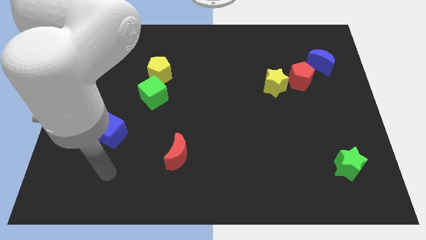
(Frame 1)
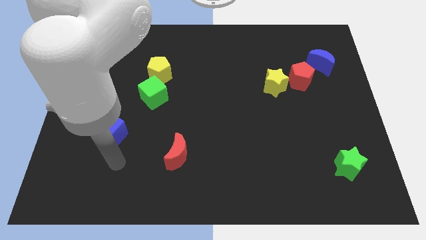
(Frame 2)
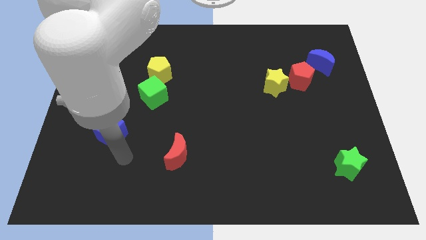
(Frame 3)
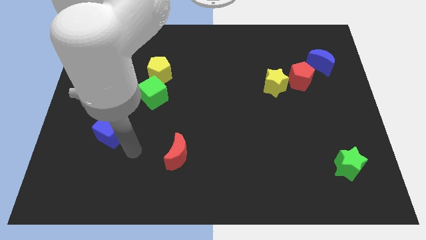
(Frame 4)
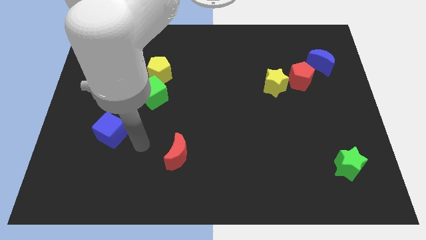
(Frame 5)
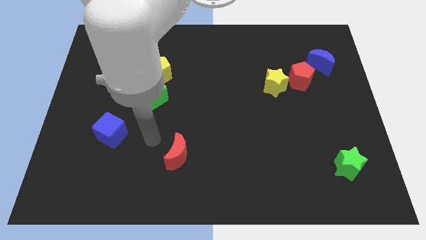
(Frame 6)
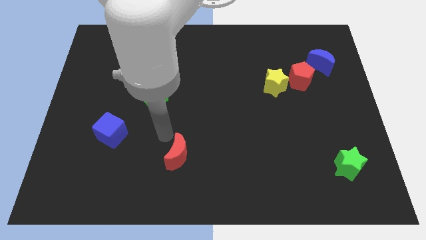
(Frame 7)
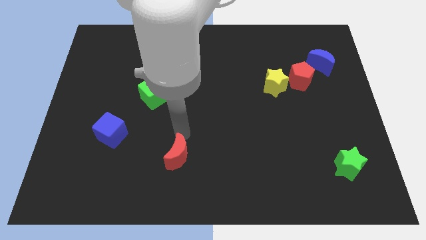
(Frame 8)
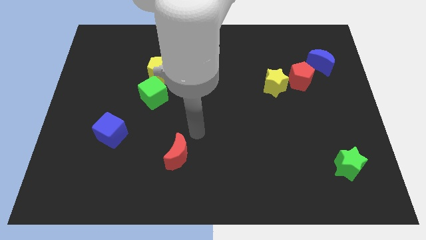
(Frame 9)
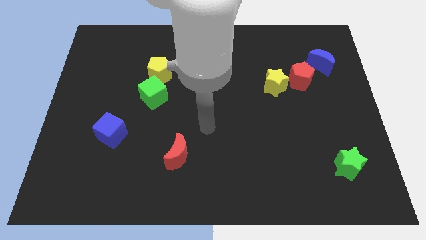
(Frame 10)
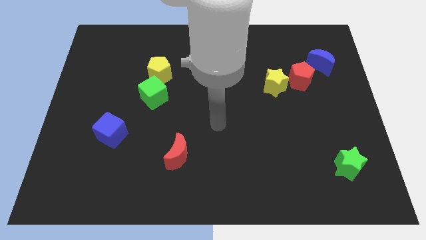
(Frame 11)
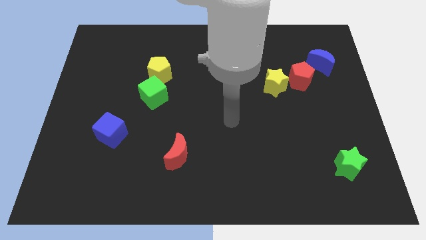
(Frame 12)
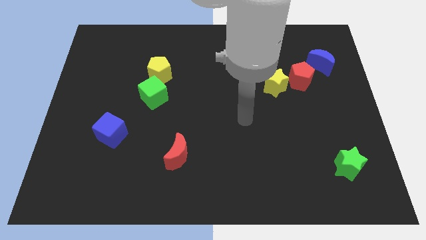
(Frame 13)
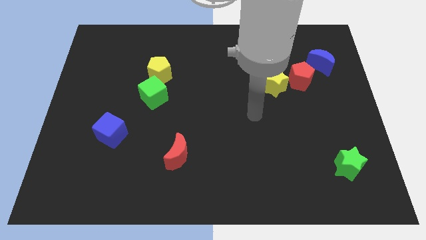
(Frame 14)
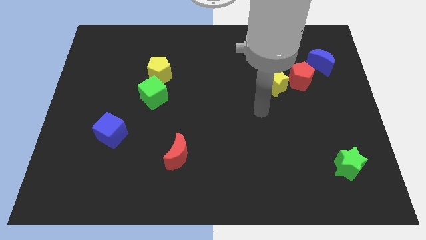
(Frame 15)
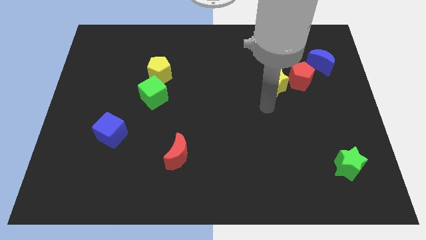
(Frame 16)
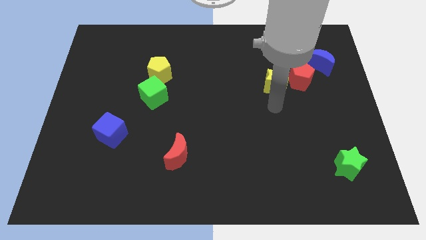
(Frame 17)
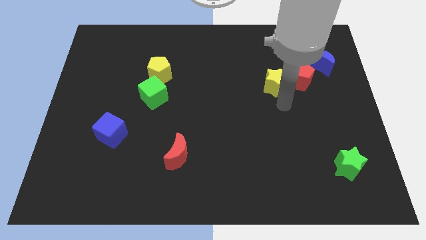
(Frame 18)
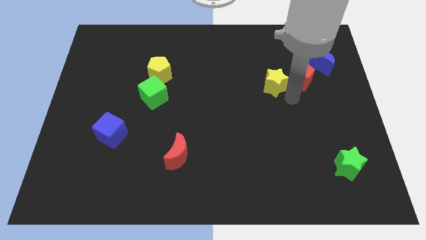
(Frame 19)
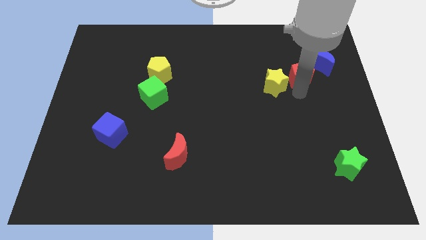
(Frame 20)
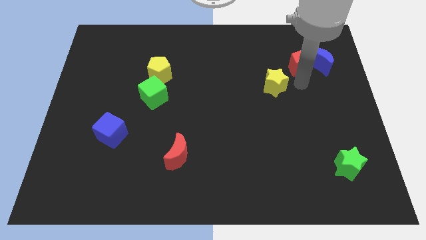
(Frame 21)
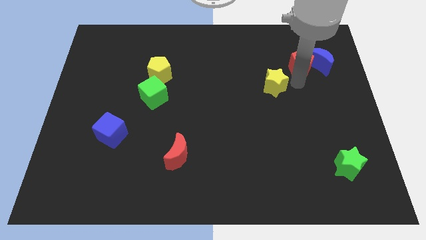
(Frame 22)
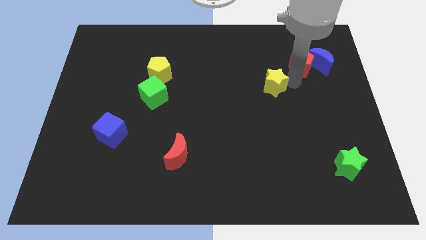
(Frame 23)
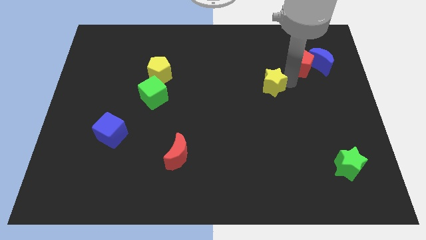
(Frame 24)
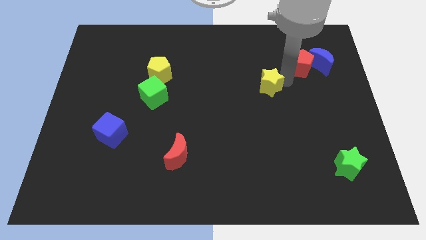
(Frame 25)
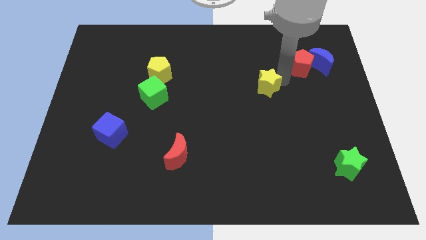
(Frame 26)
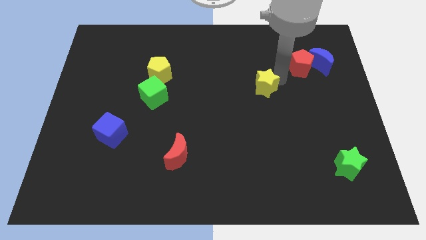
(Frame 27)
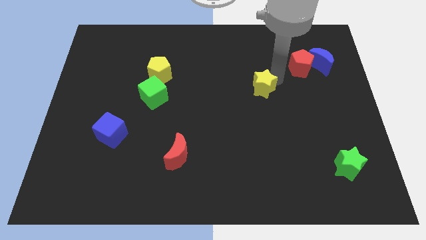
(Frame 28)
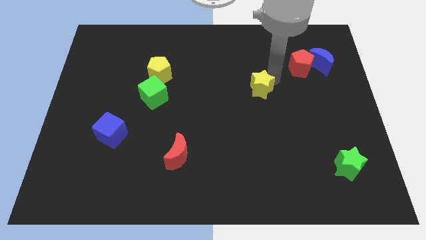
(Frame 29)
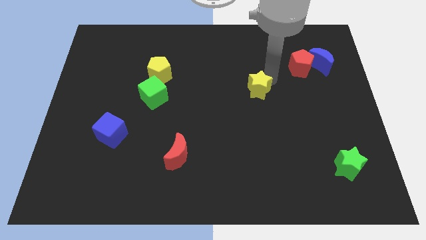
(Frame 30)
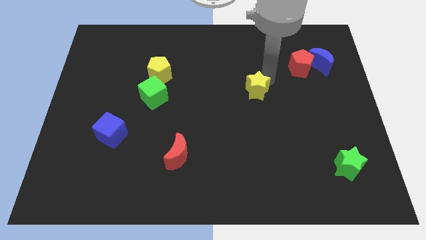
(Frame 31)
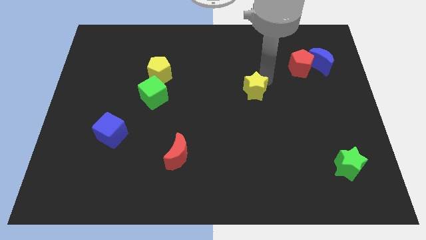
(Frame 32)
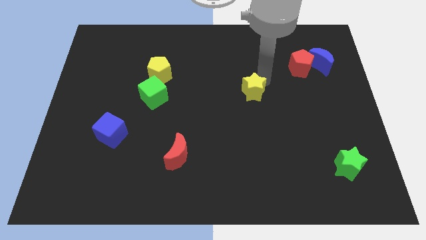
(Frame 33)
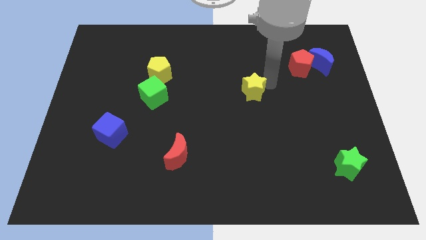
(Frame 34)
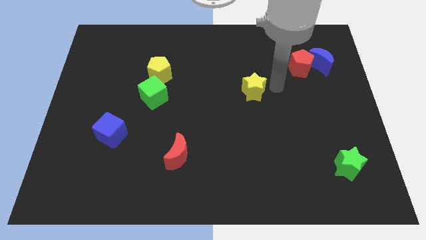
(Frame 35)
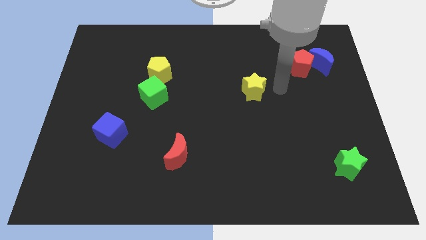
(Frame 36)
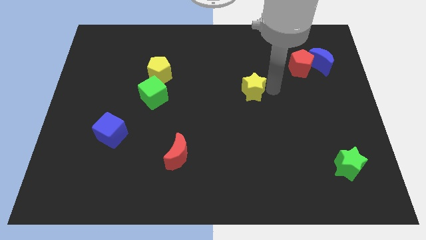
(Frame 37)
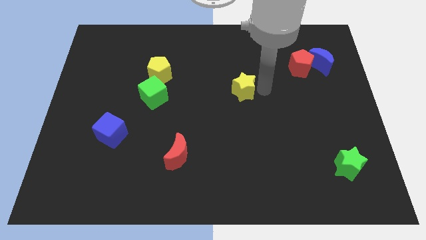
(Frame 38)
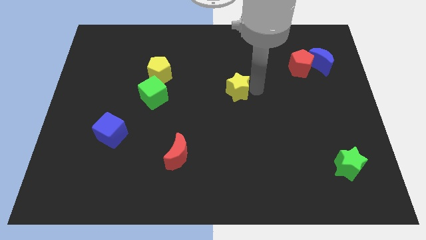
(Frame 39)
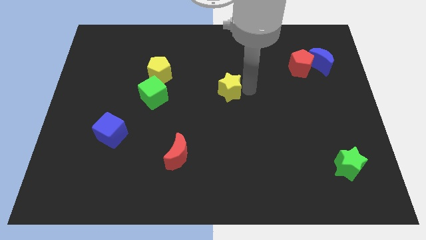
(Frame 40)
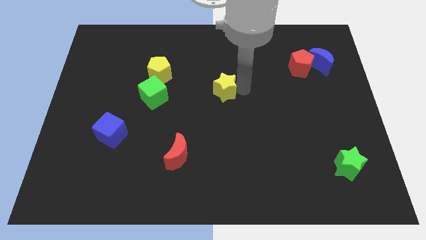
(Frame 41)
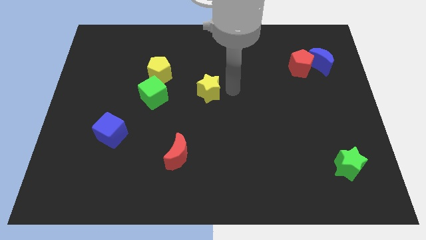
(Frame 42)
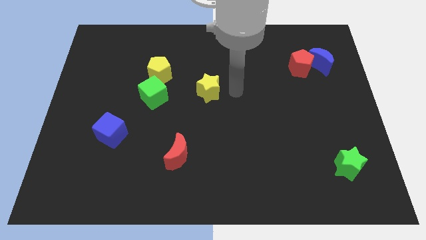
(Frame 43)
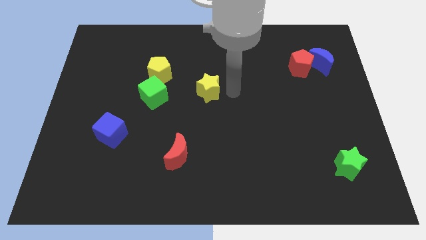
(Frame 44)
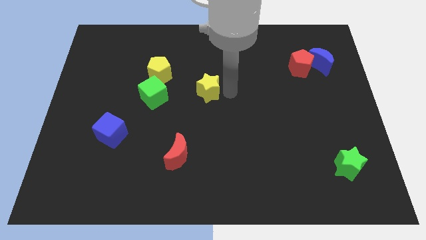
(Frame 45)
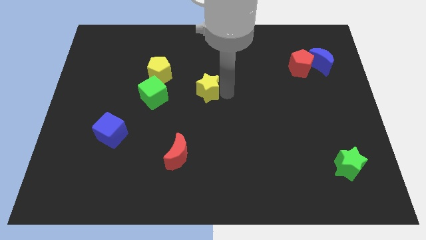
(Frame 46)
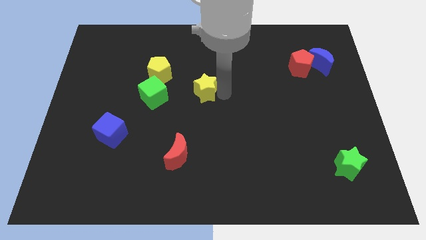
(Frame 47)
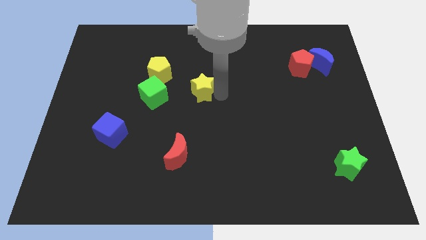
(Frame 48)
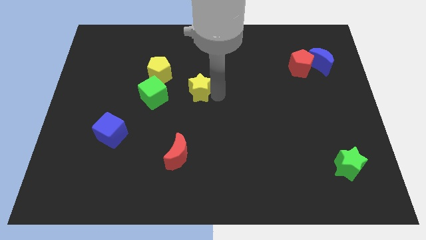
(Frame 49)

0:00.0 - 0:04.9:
put the yellow star diagonally down and to the right of the yellow pentagon

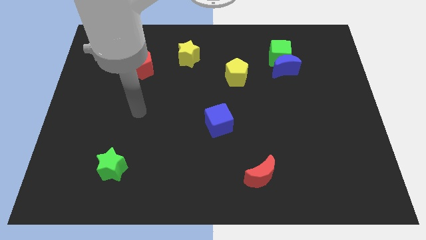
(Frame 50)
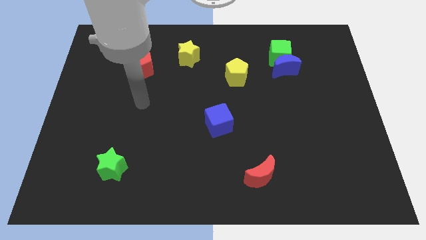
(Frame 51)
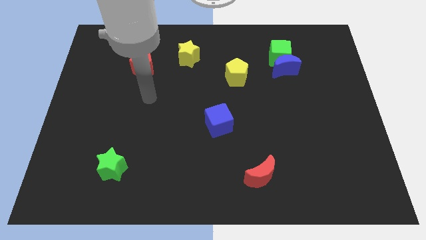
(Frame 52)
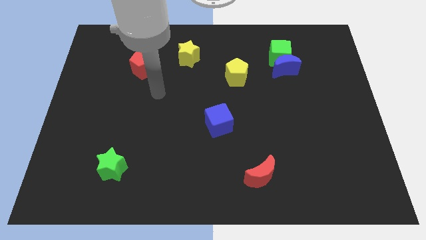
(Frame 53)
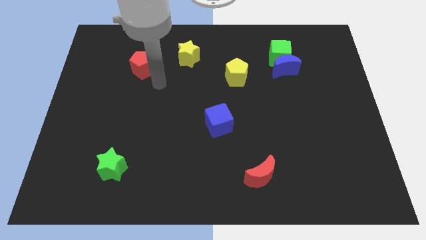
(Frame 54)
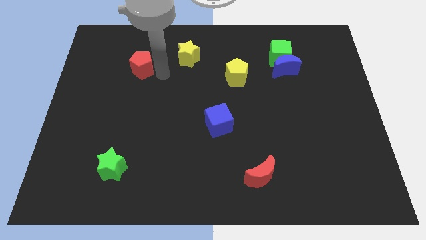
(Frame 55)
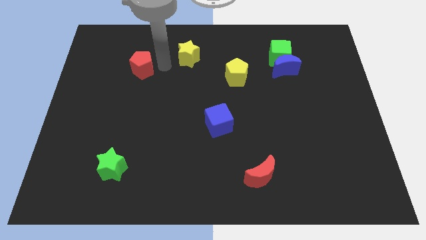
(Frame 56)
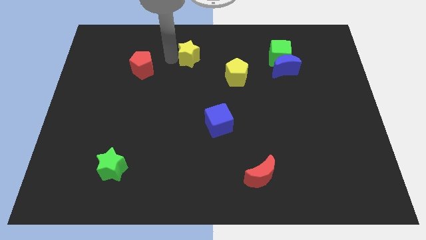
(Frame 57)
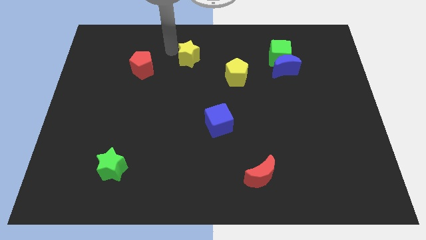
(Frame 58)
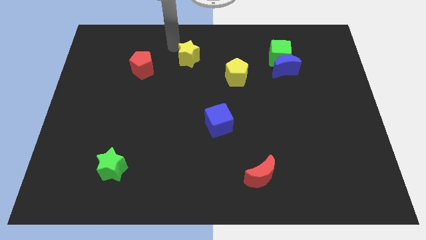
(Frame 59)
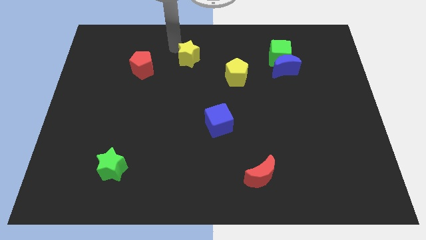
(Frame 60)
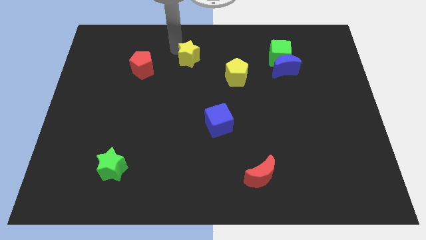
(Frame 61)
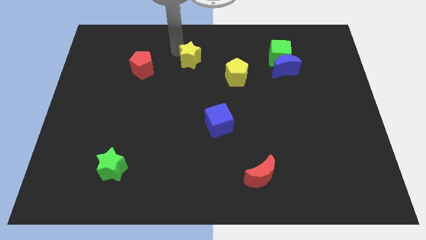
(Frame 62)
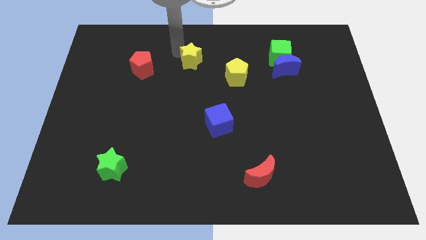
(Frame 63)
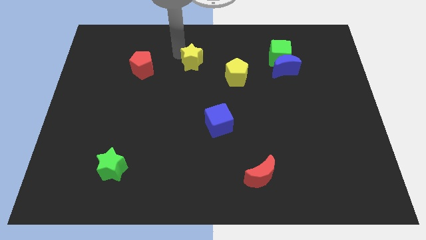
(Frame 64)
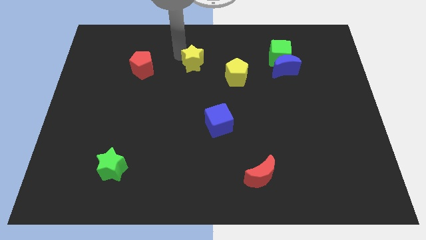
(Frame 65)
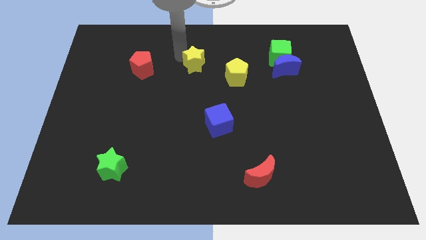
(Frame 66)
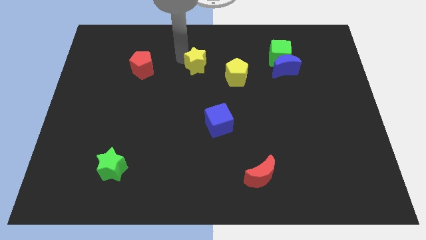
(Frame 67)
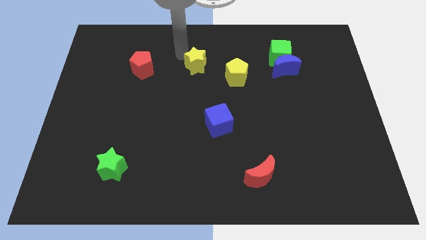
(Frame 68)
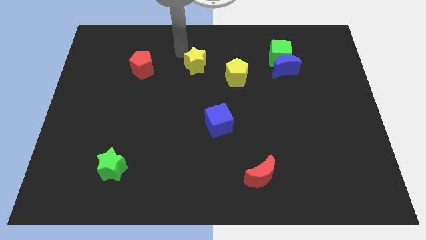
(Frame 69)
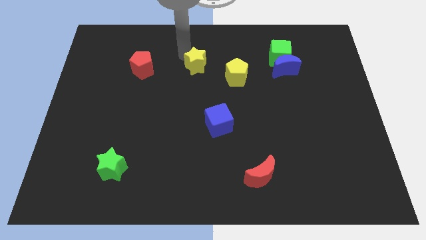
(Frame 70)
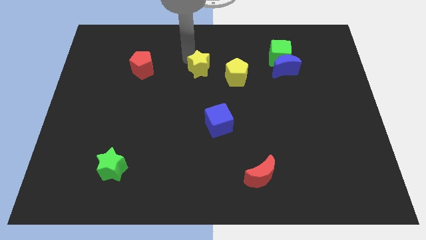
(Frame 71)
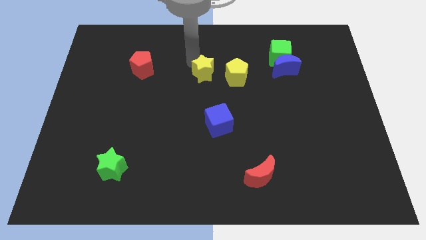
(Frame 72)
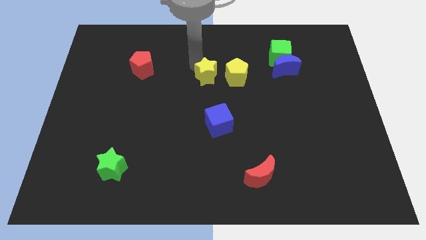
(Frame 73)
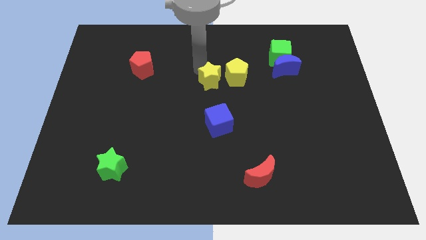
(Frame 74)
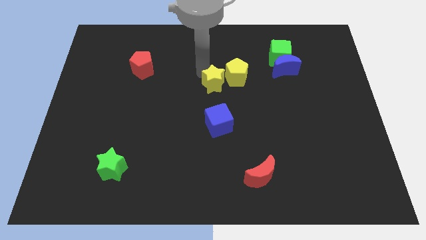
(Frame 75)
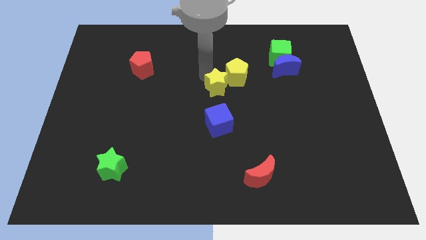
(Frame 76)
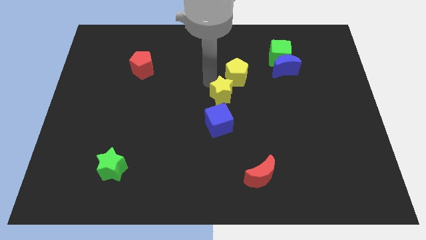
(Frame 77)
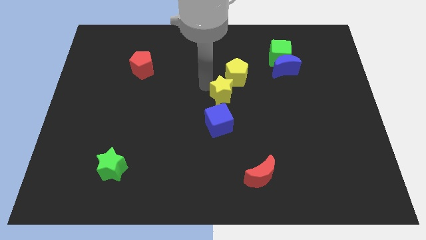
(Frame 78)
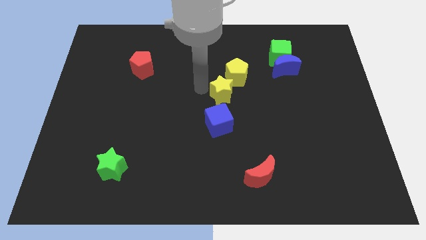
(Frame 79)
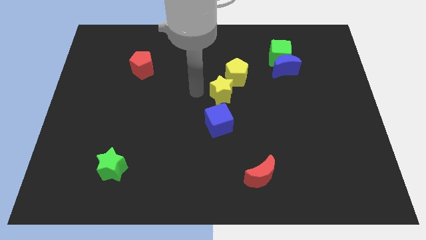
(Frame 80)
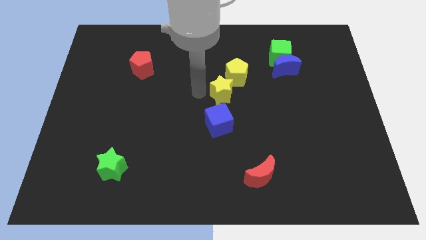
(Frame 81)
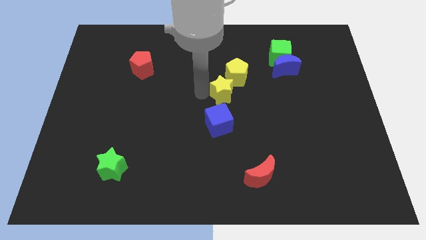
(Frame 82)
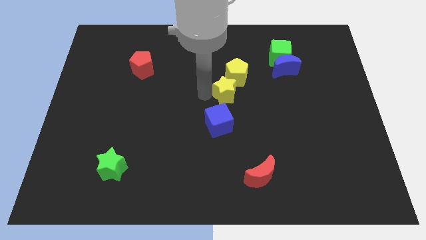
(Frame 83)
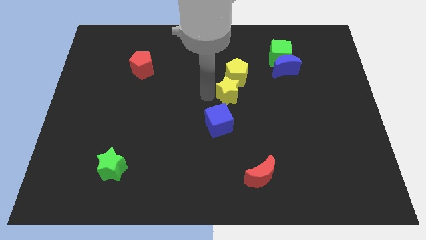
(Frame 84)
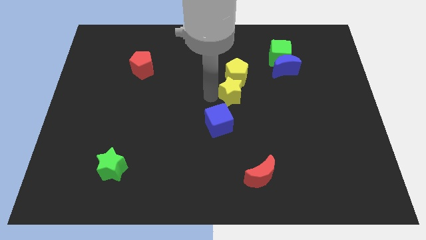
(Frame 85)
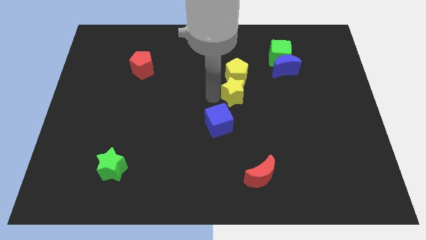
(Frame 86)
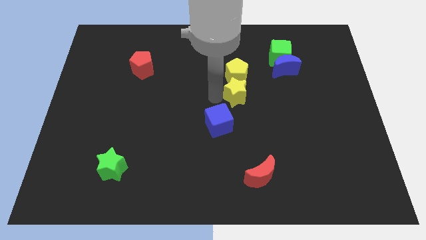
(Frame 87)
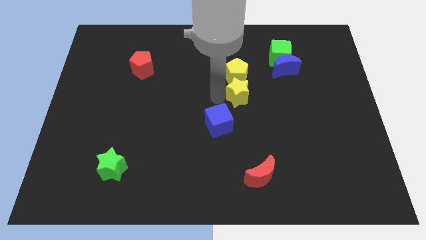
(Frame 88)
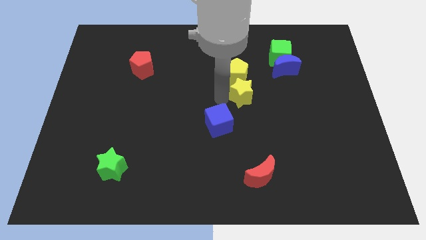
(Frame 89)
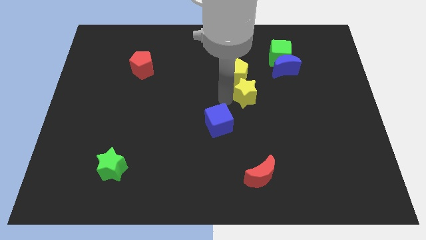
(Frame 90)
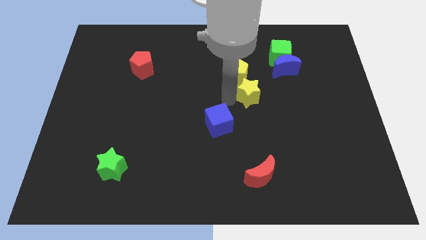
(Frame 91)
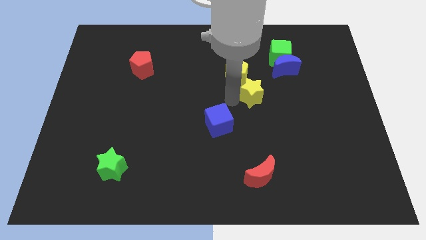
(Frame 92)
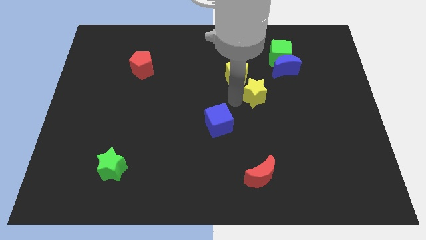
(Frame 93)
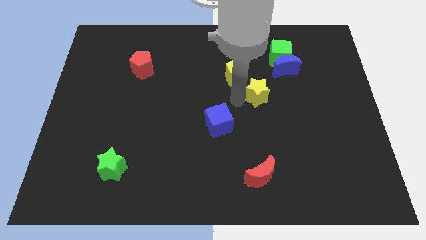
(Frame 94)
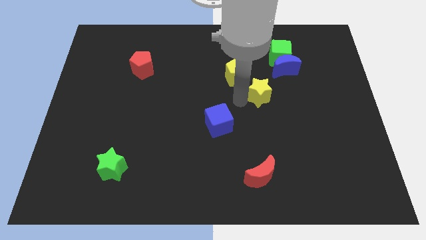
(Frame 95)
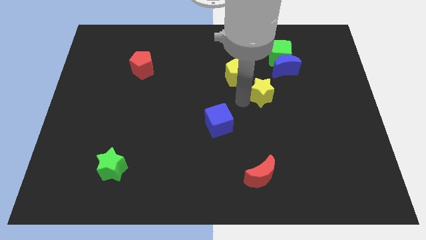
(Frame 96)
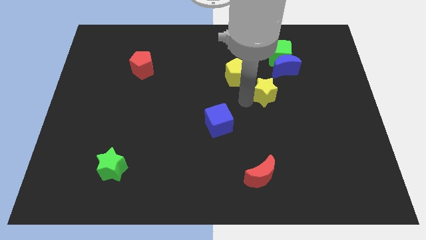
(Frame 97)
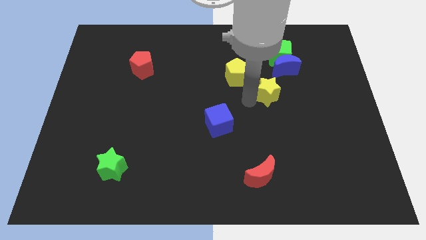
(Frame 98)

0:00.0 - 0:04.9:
move the yellow star below the blue moon
